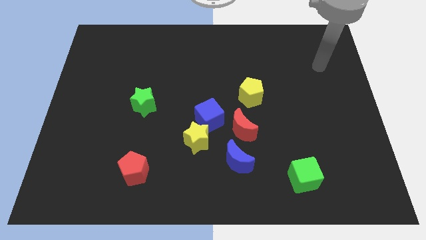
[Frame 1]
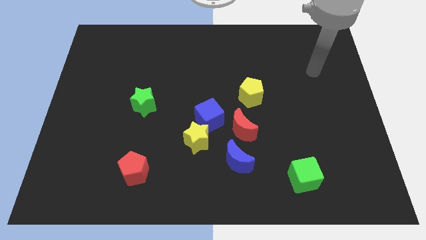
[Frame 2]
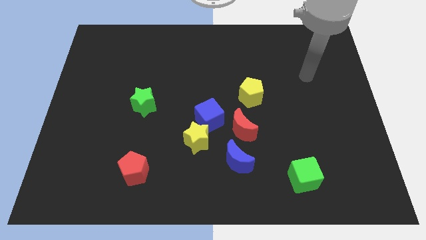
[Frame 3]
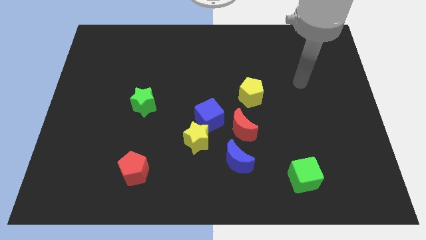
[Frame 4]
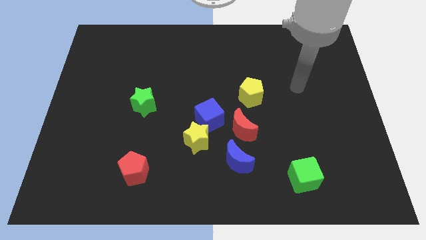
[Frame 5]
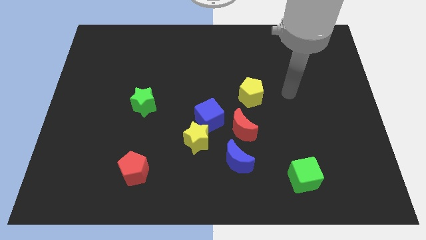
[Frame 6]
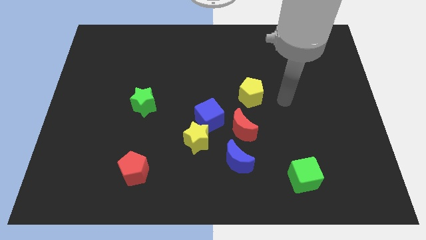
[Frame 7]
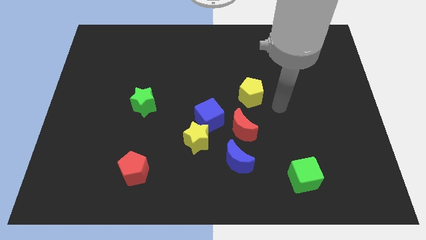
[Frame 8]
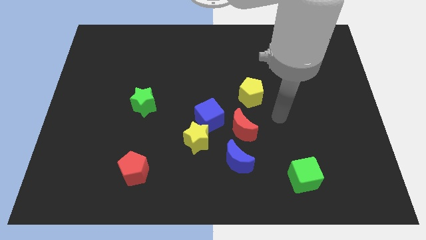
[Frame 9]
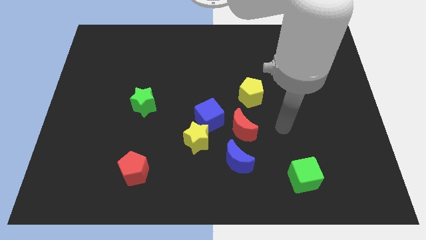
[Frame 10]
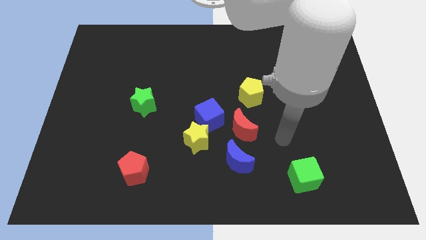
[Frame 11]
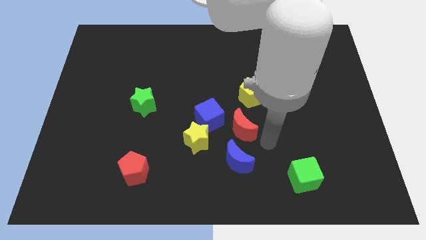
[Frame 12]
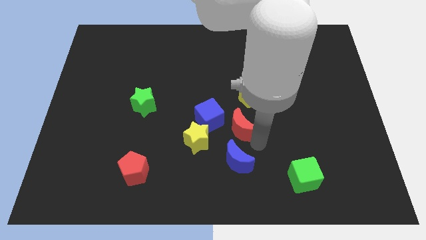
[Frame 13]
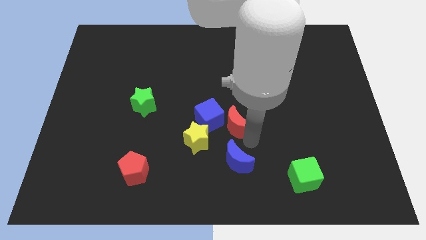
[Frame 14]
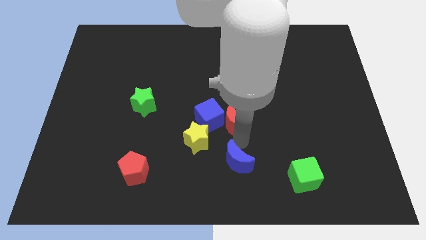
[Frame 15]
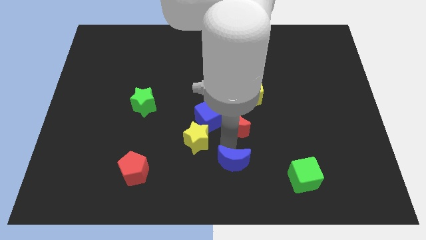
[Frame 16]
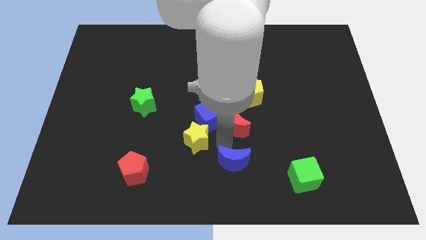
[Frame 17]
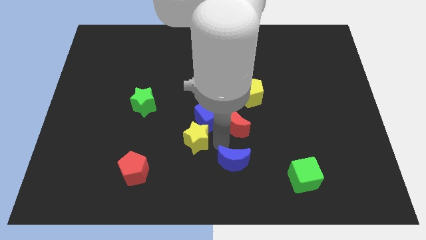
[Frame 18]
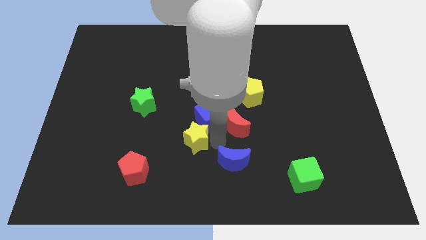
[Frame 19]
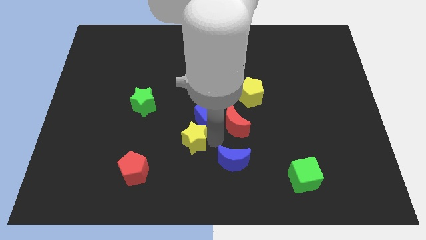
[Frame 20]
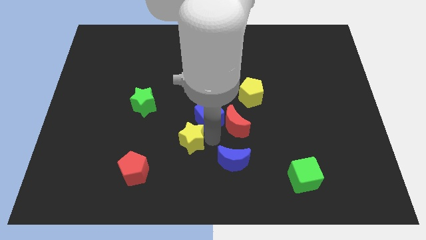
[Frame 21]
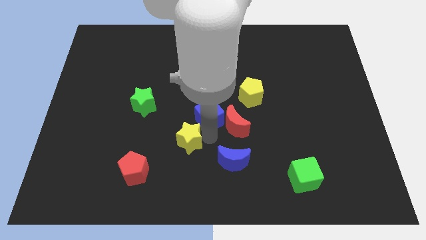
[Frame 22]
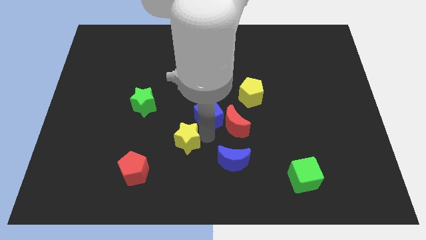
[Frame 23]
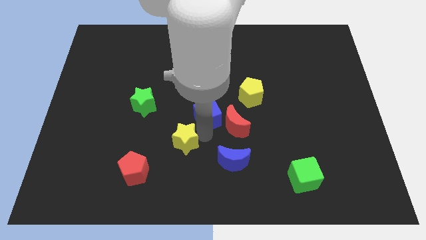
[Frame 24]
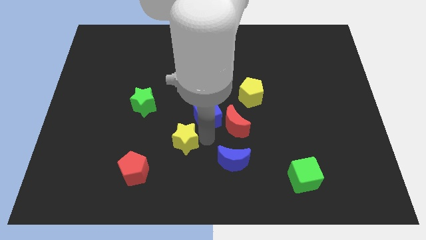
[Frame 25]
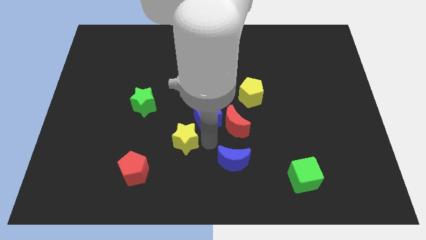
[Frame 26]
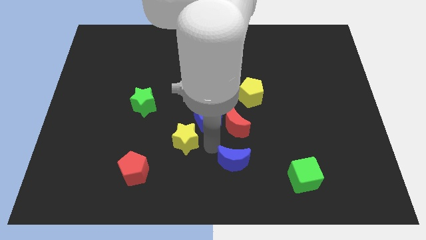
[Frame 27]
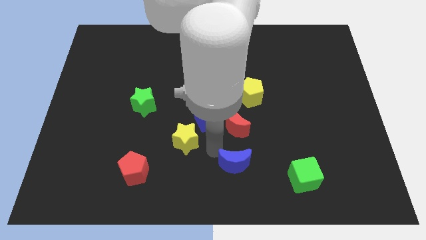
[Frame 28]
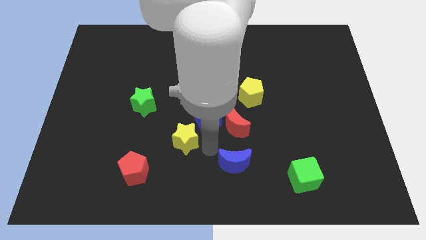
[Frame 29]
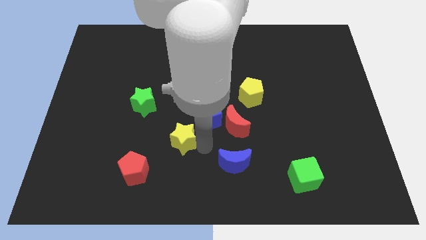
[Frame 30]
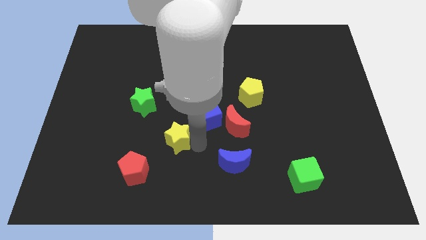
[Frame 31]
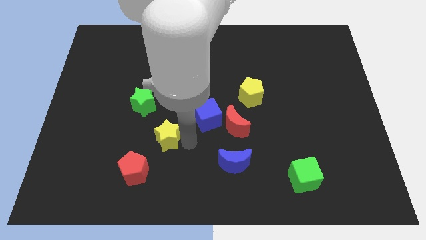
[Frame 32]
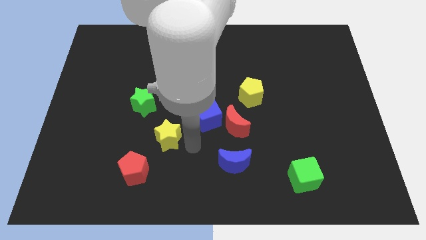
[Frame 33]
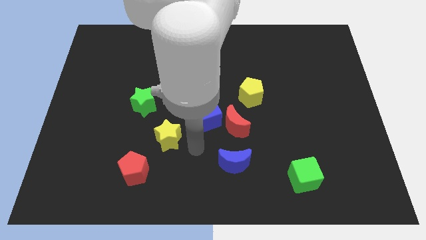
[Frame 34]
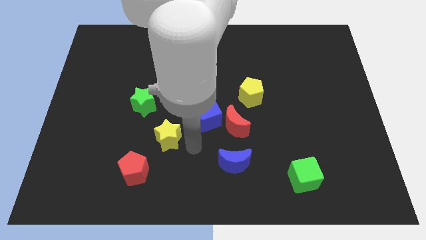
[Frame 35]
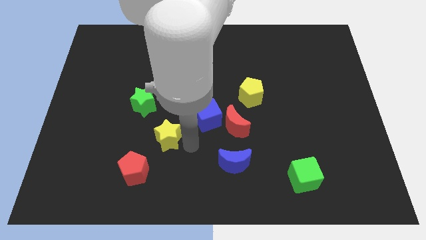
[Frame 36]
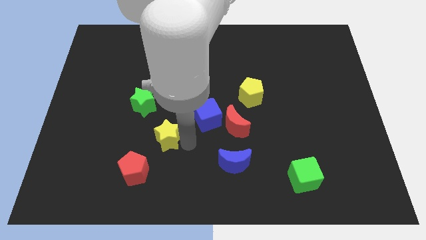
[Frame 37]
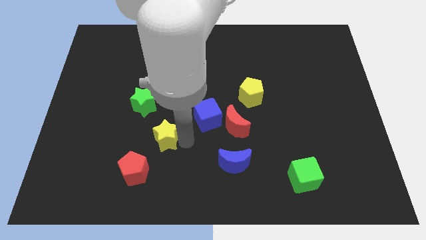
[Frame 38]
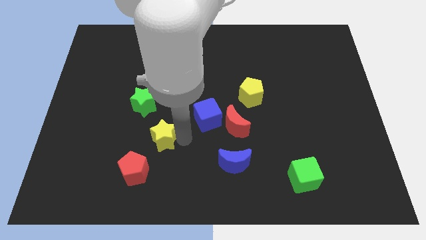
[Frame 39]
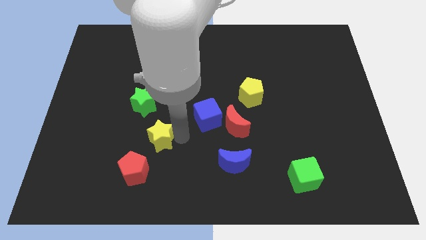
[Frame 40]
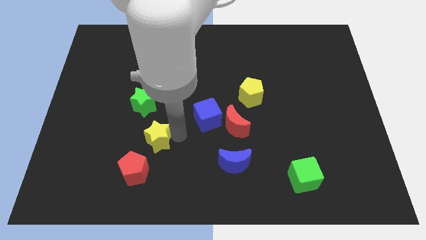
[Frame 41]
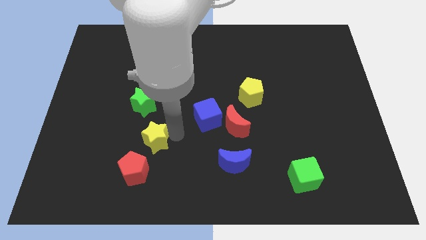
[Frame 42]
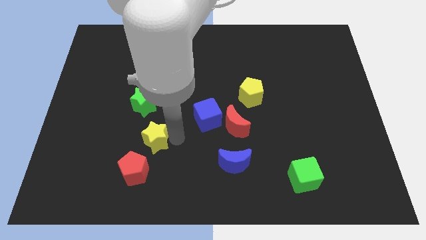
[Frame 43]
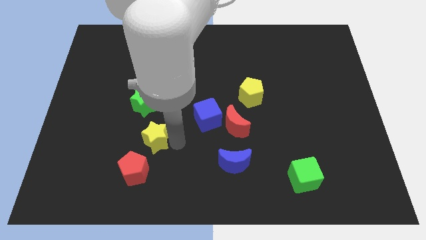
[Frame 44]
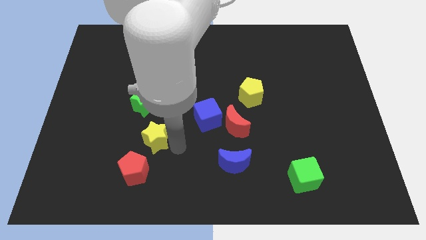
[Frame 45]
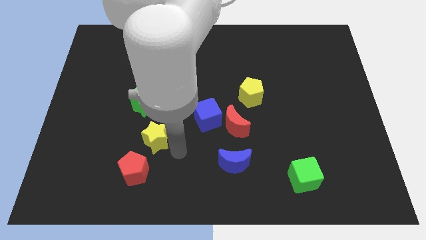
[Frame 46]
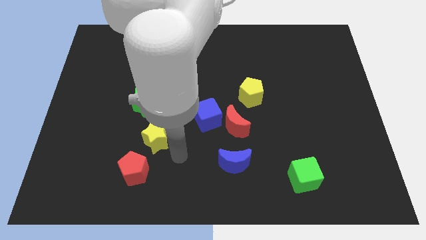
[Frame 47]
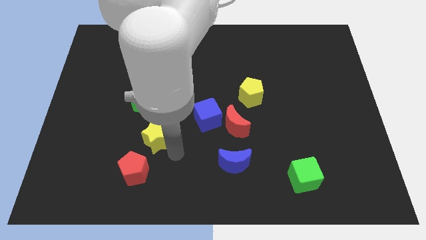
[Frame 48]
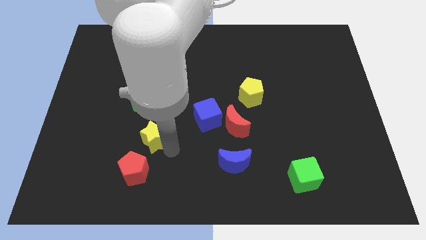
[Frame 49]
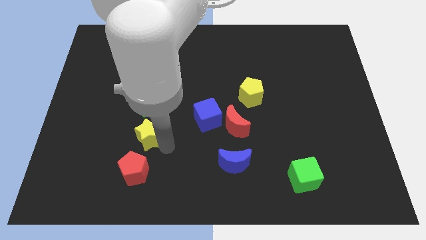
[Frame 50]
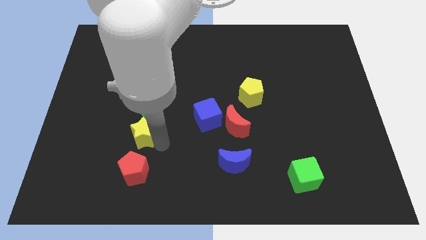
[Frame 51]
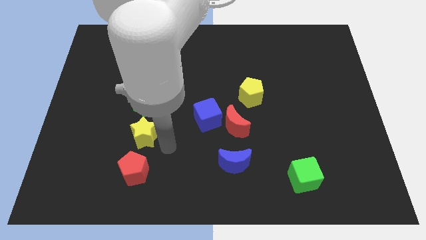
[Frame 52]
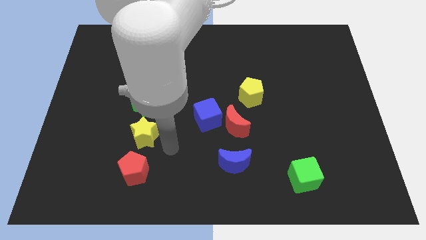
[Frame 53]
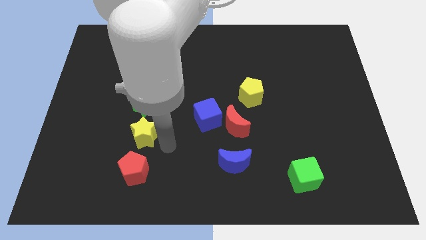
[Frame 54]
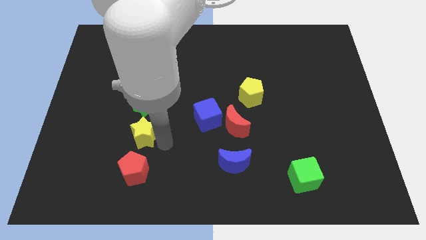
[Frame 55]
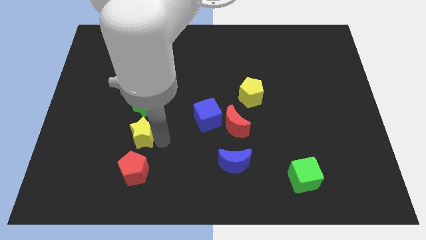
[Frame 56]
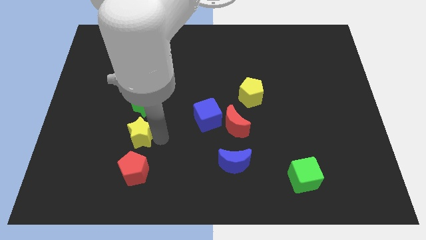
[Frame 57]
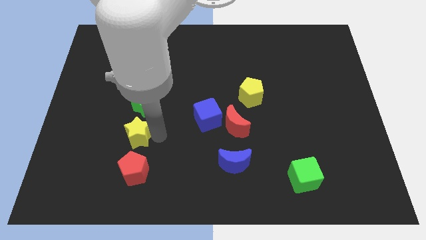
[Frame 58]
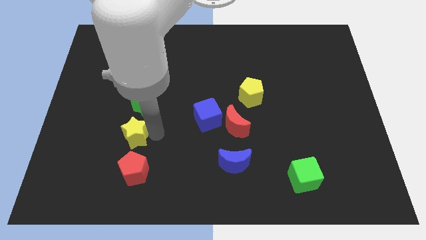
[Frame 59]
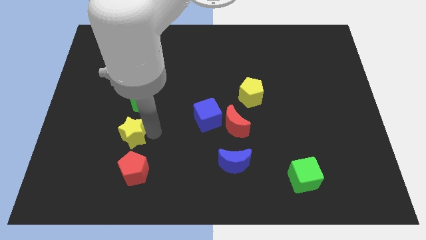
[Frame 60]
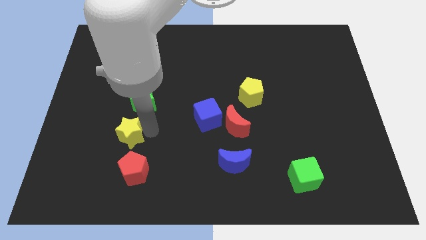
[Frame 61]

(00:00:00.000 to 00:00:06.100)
push the yellow star diagonally down and to the left of the green star
